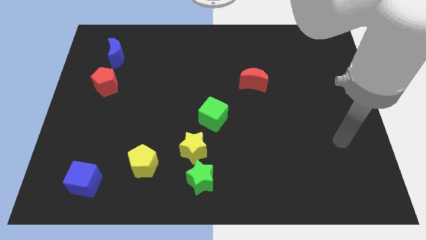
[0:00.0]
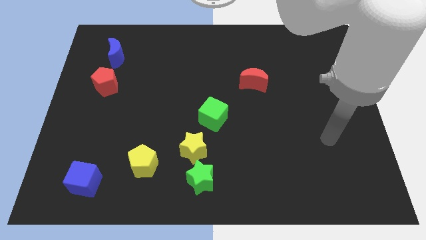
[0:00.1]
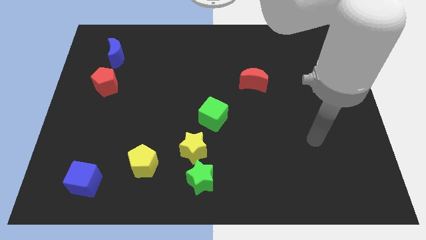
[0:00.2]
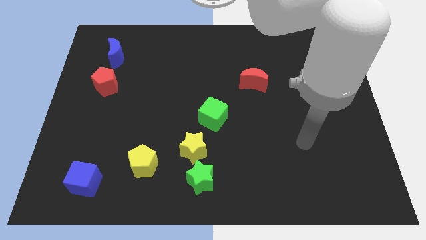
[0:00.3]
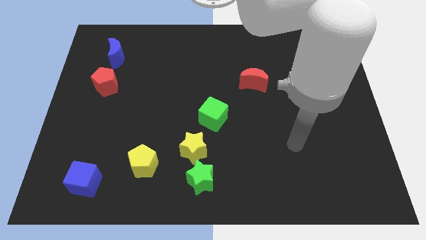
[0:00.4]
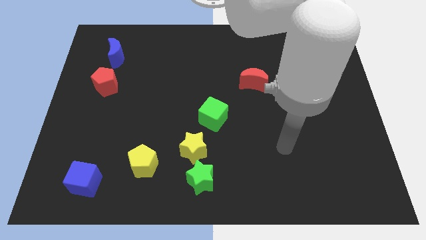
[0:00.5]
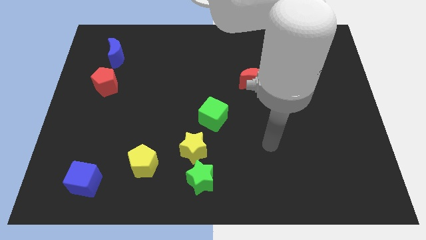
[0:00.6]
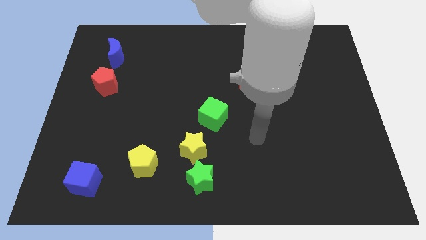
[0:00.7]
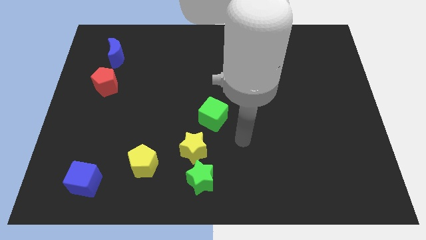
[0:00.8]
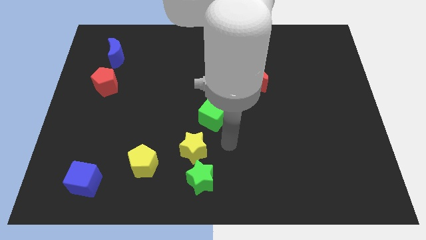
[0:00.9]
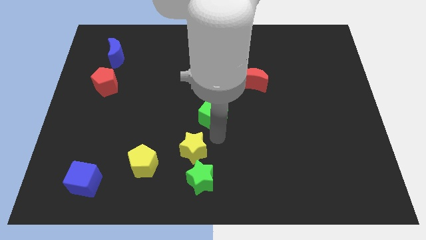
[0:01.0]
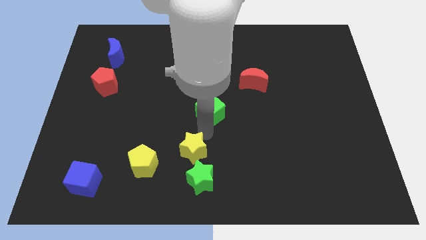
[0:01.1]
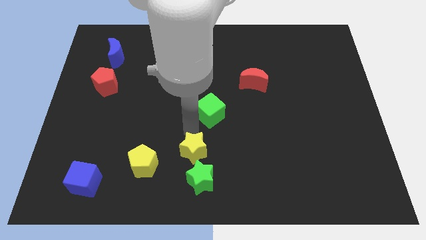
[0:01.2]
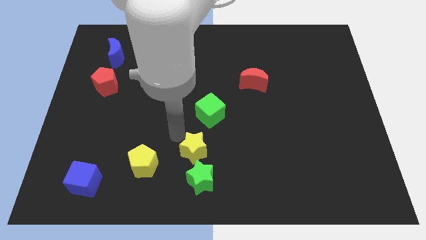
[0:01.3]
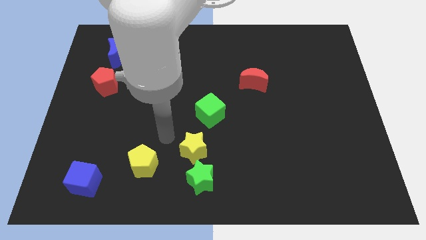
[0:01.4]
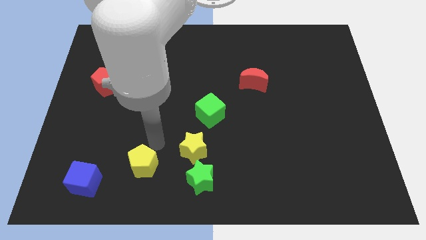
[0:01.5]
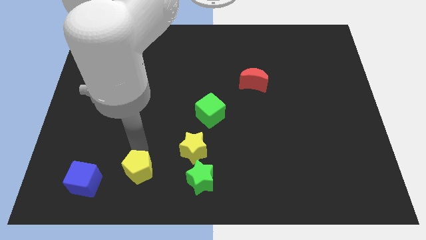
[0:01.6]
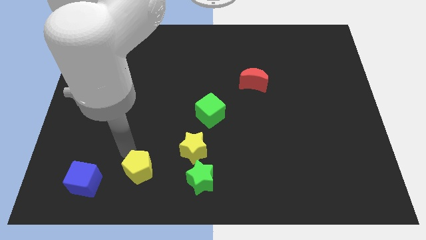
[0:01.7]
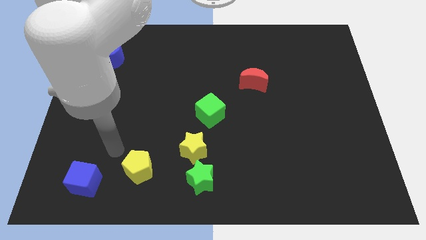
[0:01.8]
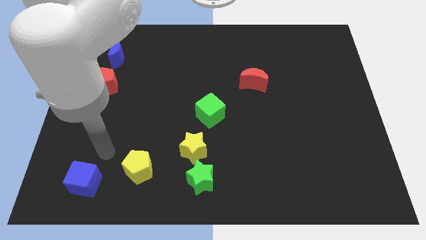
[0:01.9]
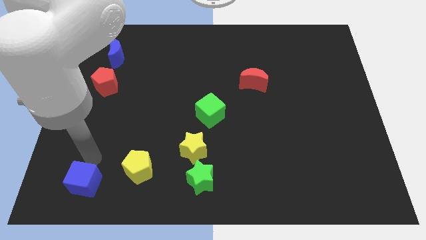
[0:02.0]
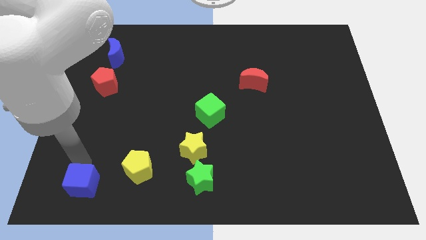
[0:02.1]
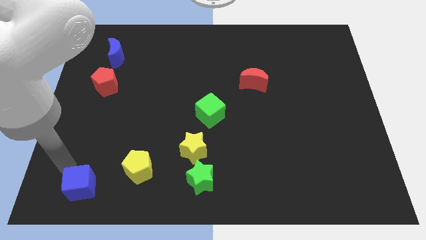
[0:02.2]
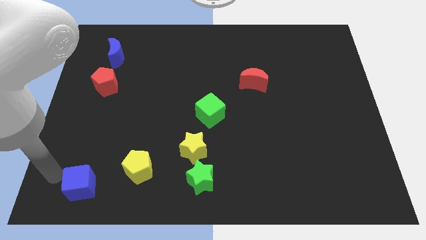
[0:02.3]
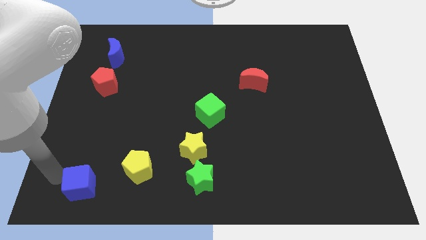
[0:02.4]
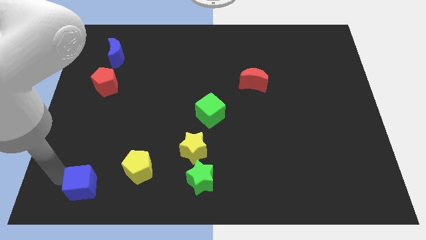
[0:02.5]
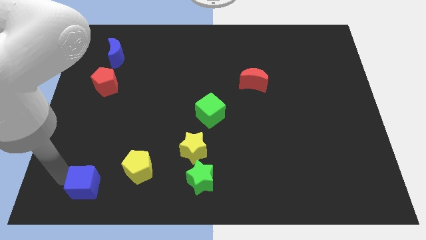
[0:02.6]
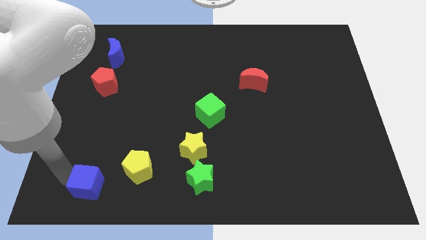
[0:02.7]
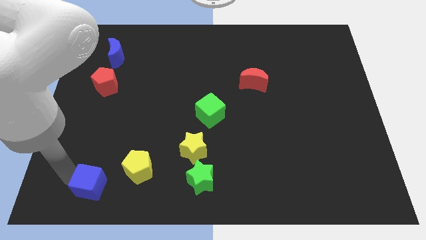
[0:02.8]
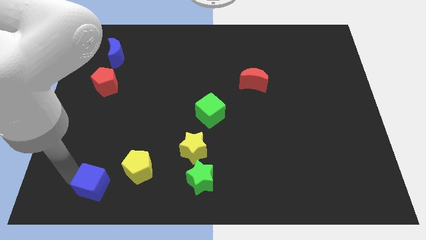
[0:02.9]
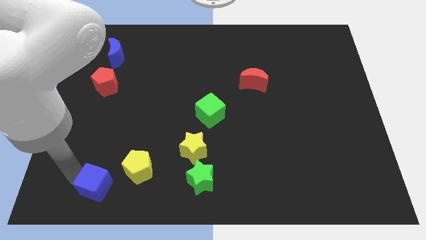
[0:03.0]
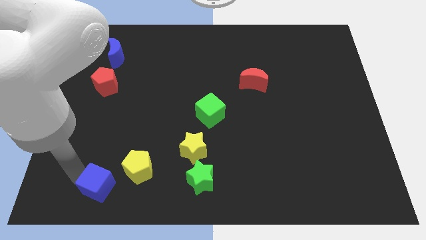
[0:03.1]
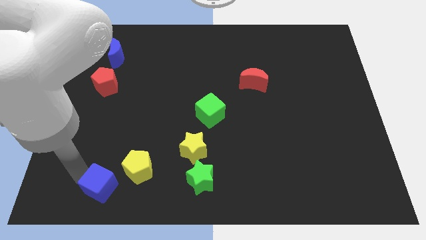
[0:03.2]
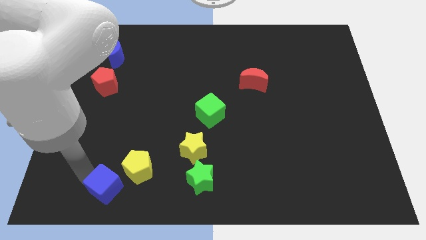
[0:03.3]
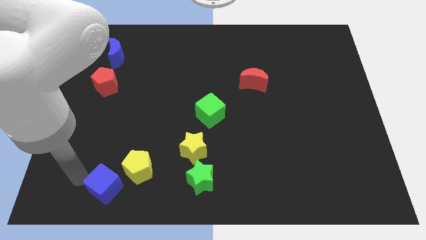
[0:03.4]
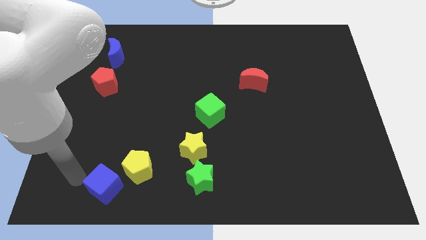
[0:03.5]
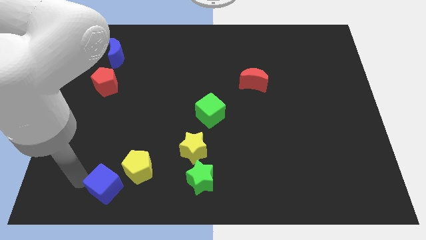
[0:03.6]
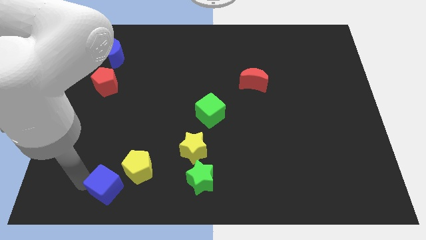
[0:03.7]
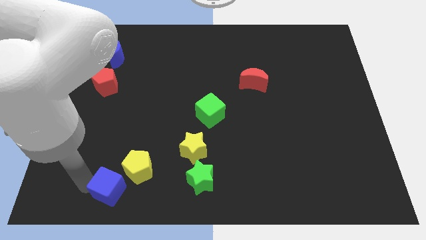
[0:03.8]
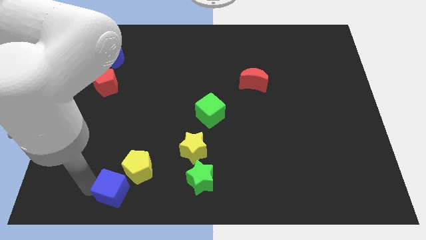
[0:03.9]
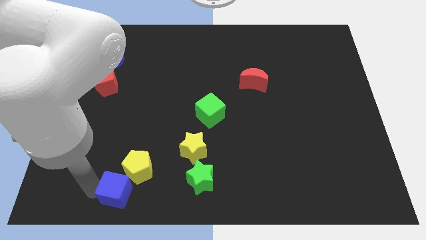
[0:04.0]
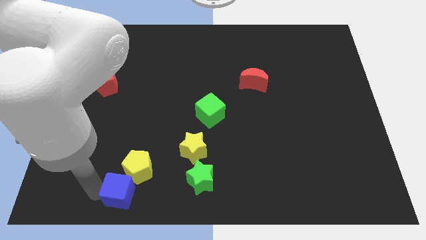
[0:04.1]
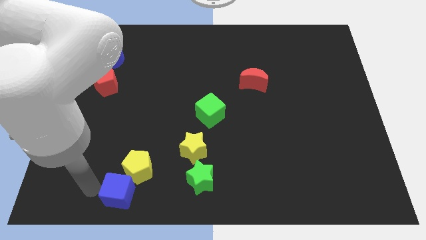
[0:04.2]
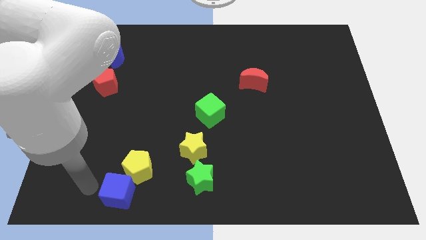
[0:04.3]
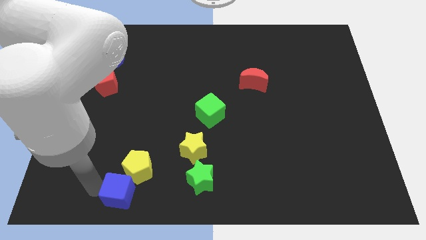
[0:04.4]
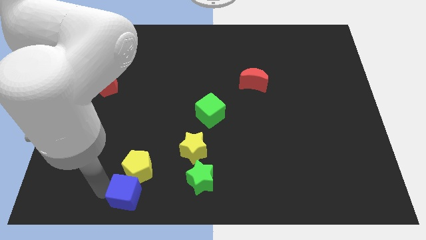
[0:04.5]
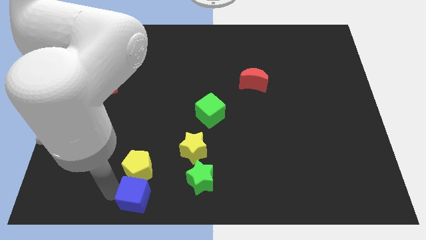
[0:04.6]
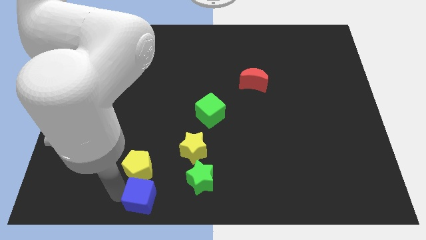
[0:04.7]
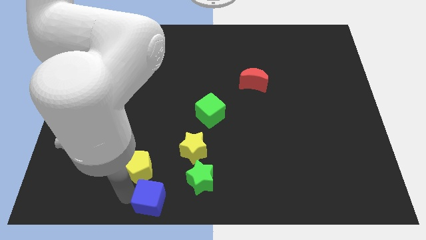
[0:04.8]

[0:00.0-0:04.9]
put the blue cube to the bottom

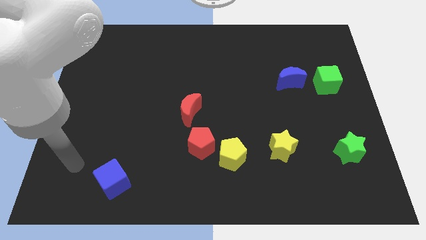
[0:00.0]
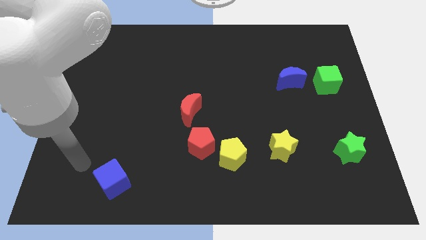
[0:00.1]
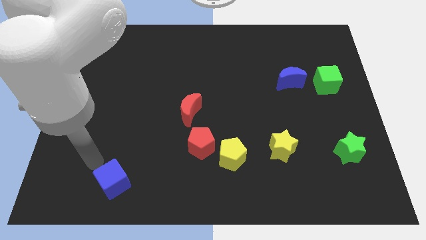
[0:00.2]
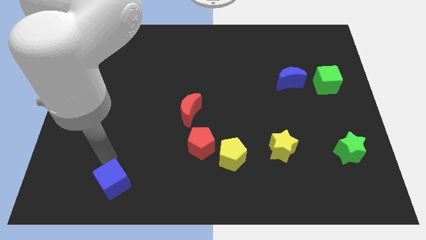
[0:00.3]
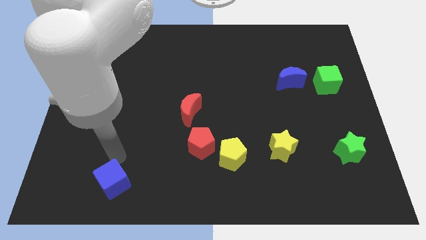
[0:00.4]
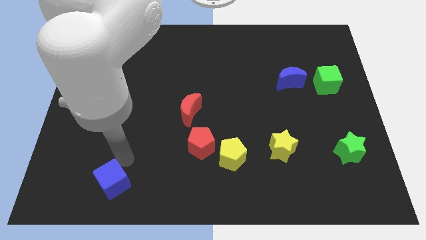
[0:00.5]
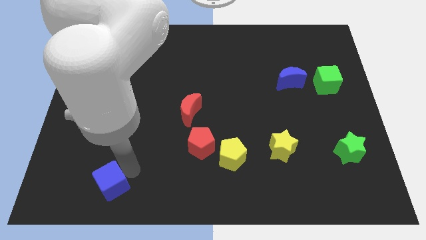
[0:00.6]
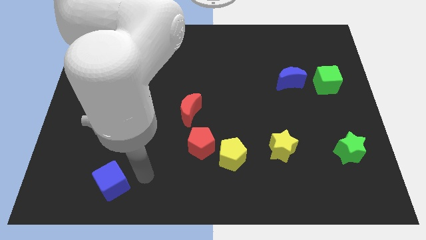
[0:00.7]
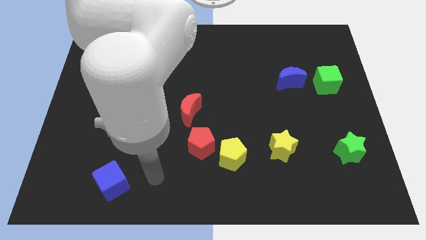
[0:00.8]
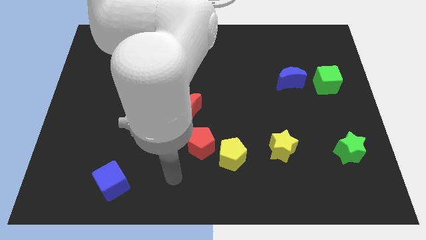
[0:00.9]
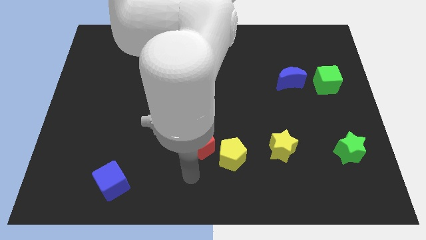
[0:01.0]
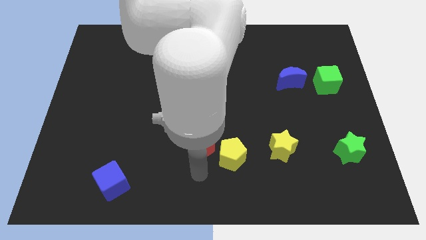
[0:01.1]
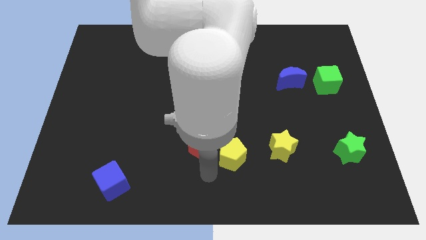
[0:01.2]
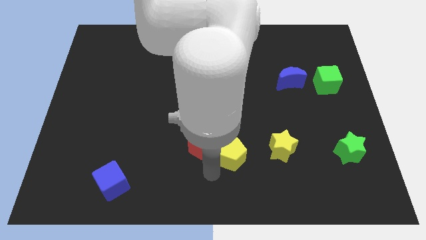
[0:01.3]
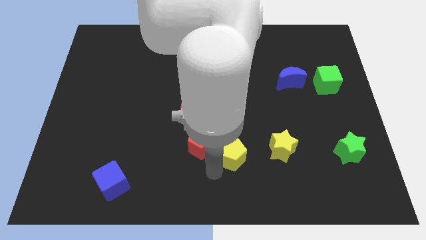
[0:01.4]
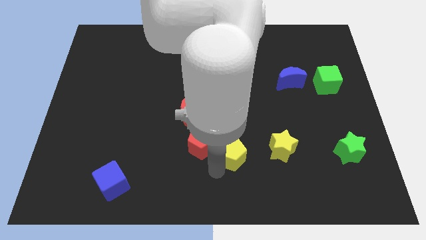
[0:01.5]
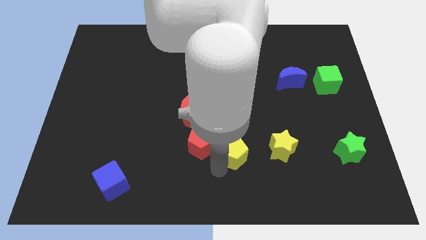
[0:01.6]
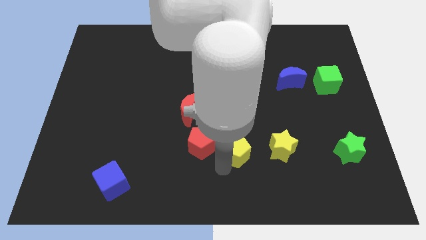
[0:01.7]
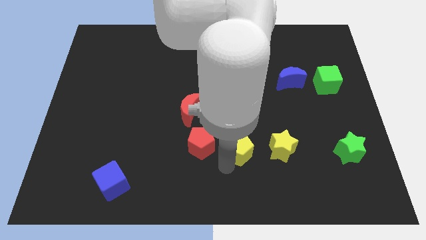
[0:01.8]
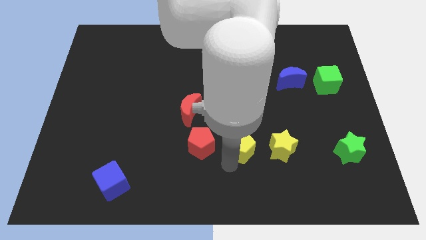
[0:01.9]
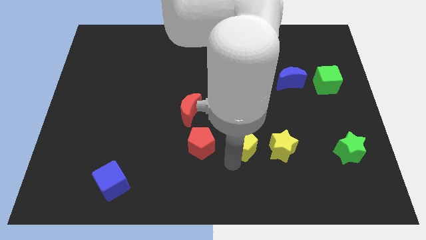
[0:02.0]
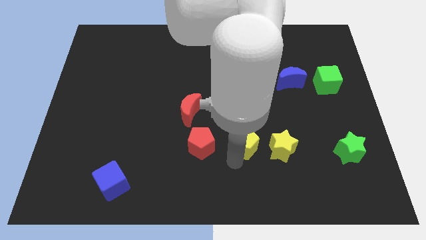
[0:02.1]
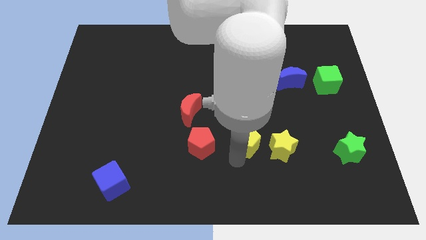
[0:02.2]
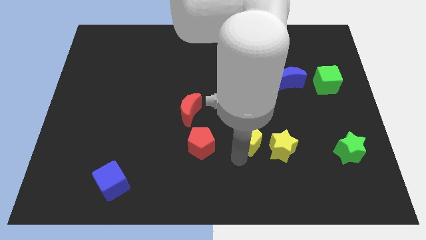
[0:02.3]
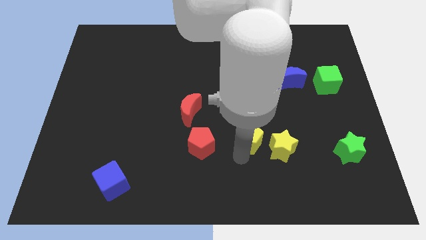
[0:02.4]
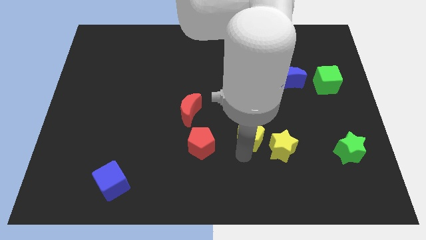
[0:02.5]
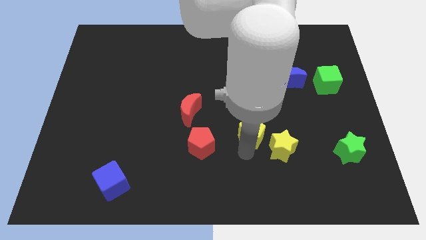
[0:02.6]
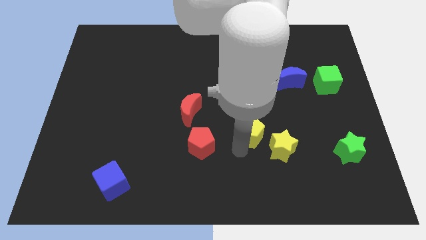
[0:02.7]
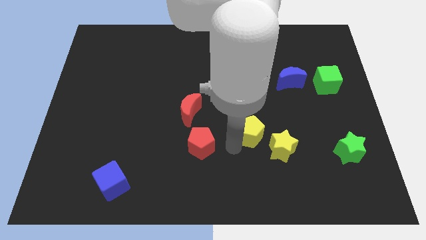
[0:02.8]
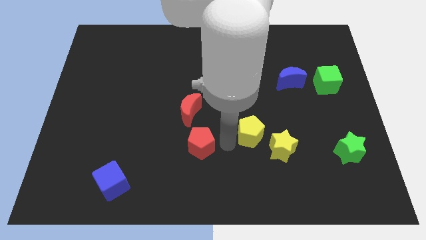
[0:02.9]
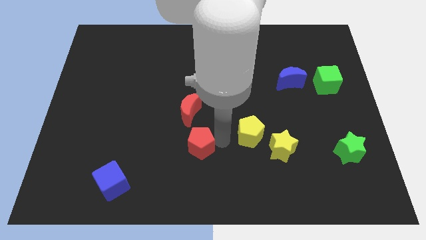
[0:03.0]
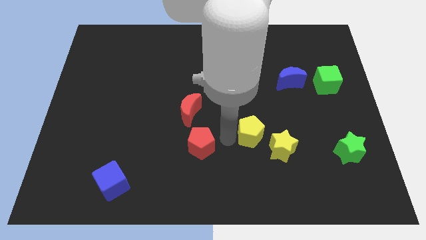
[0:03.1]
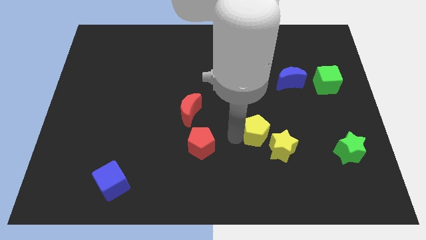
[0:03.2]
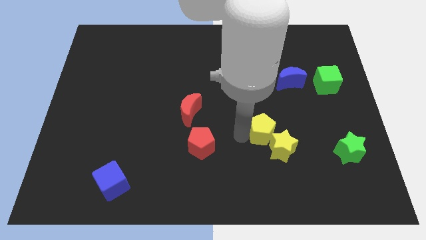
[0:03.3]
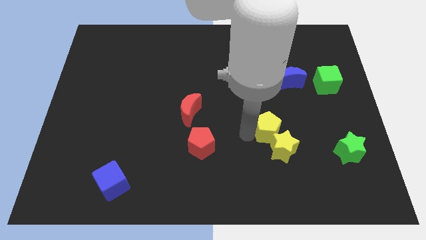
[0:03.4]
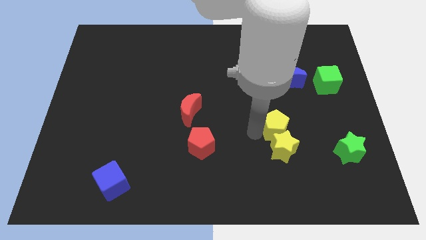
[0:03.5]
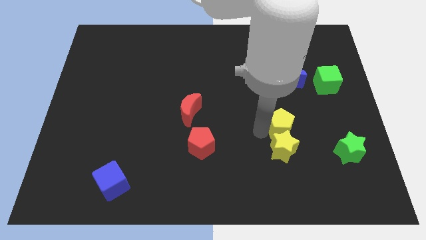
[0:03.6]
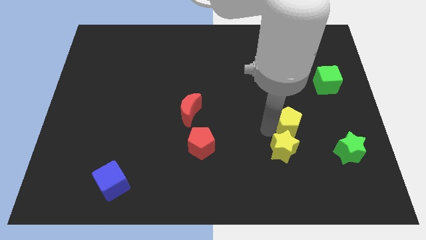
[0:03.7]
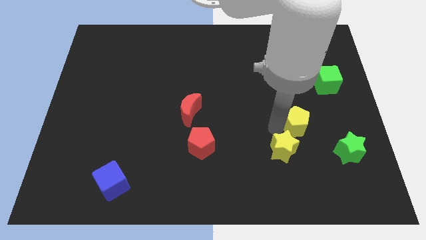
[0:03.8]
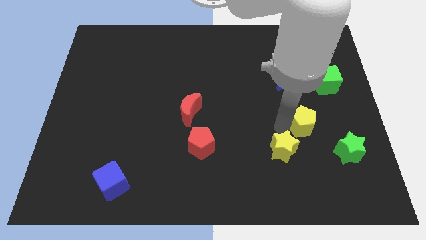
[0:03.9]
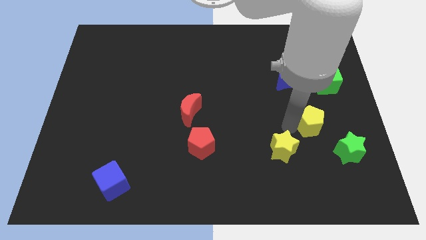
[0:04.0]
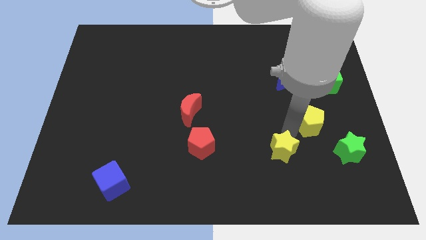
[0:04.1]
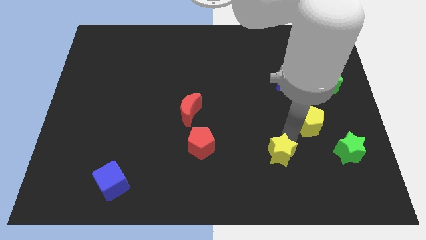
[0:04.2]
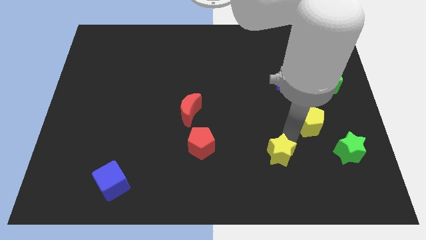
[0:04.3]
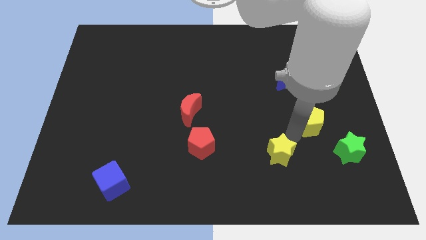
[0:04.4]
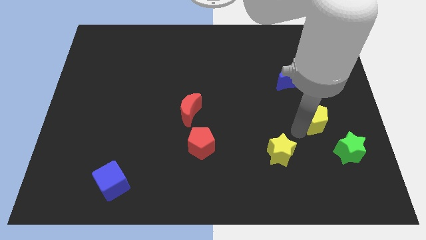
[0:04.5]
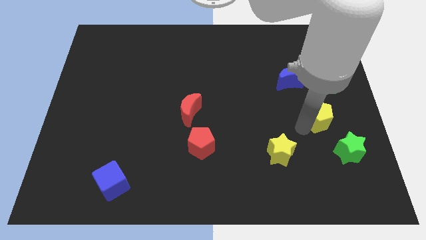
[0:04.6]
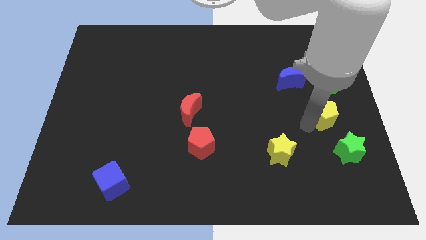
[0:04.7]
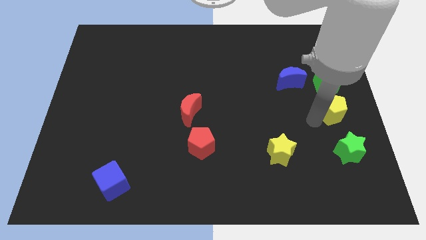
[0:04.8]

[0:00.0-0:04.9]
push the yellow pentagon to the center right
